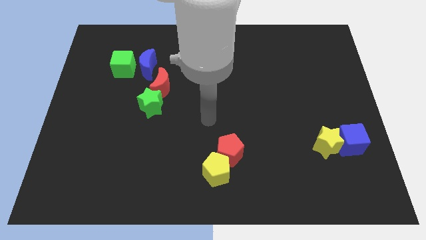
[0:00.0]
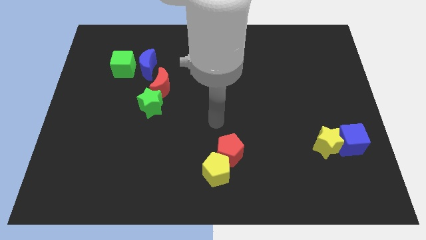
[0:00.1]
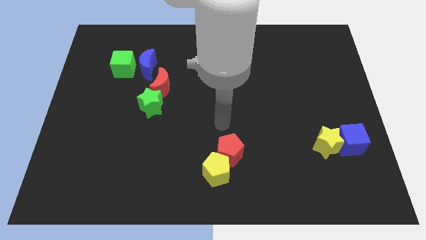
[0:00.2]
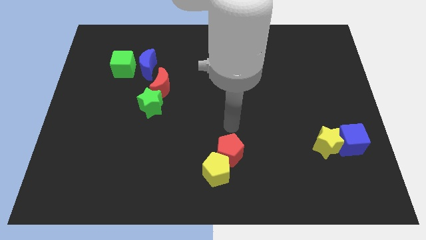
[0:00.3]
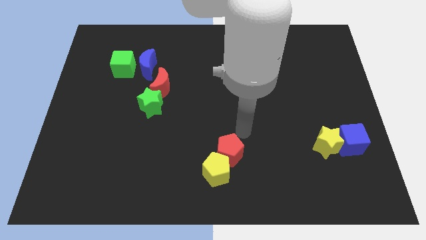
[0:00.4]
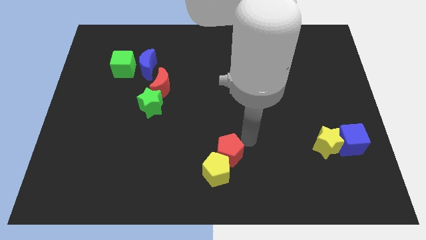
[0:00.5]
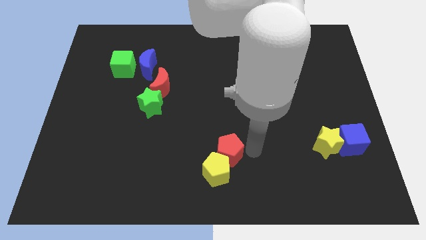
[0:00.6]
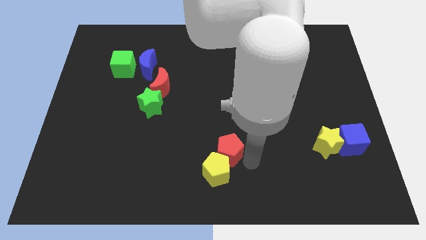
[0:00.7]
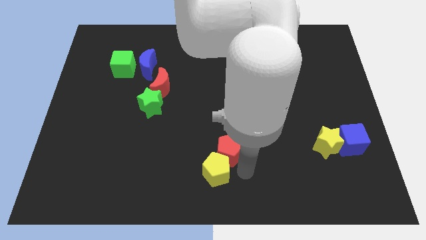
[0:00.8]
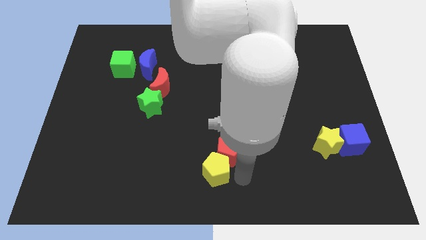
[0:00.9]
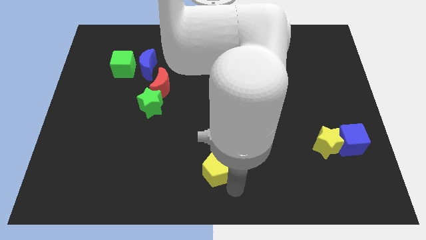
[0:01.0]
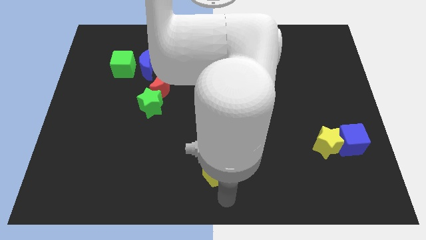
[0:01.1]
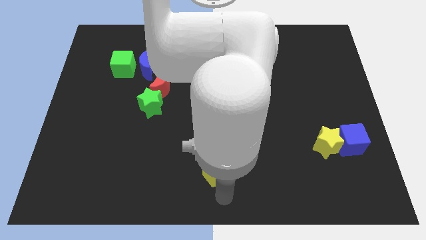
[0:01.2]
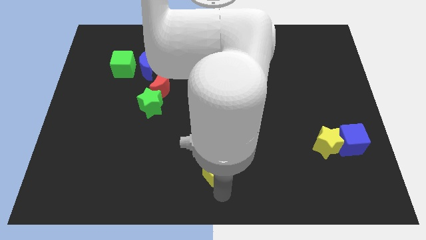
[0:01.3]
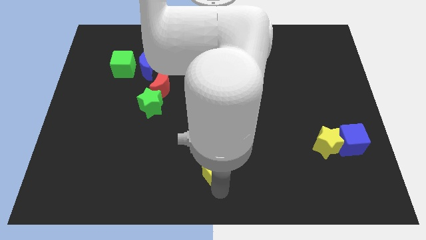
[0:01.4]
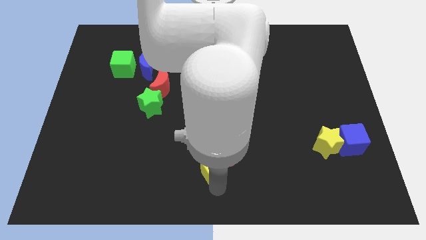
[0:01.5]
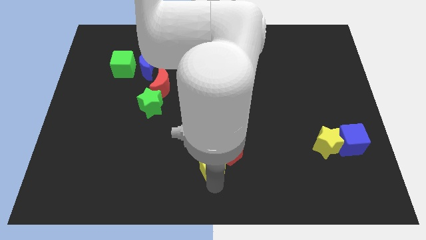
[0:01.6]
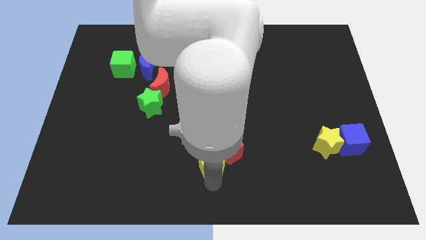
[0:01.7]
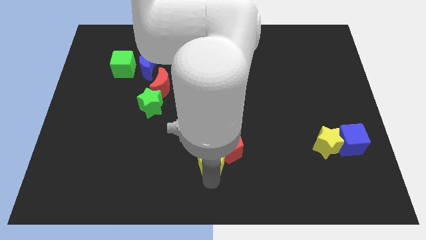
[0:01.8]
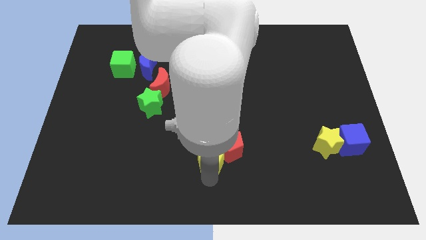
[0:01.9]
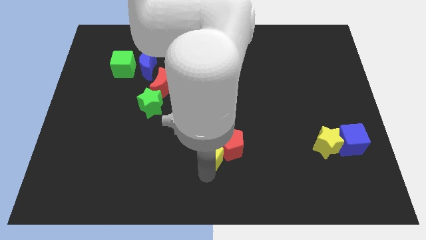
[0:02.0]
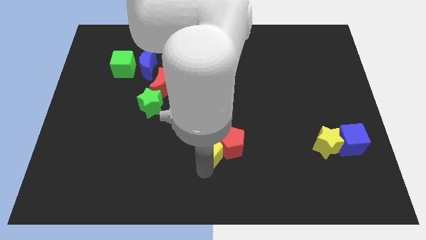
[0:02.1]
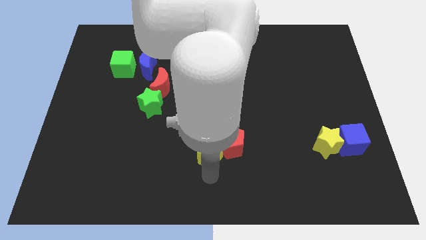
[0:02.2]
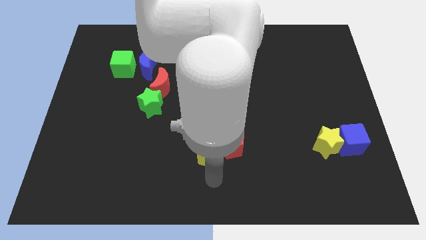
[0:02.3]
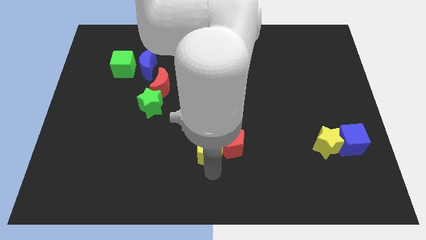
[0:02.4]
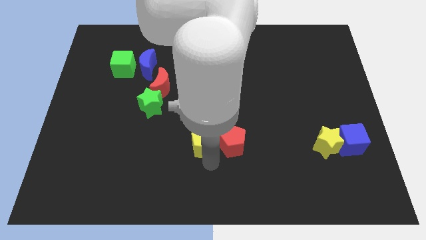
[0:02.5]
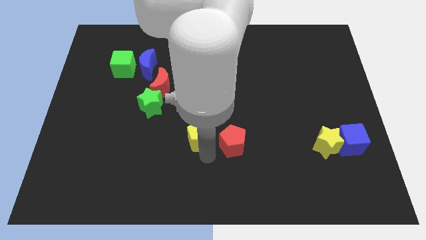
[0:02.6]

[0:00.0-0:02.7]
slide the yellow pentagon up somewhat

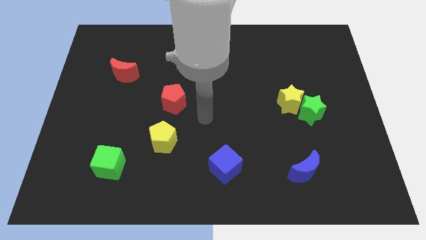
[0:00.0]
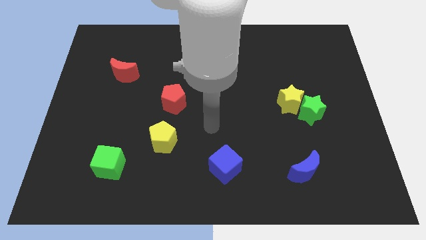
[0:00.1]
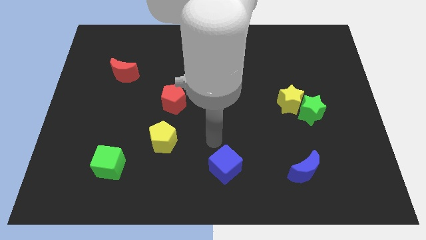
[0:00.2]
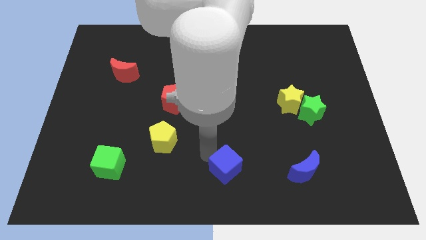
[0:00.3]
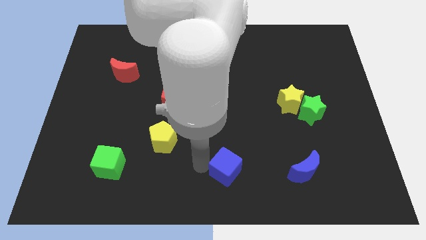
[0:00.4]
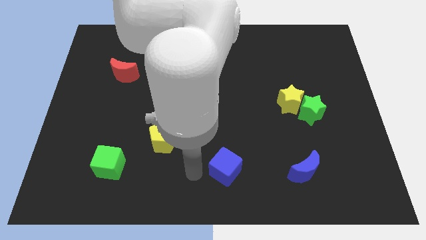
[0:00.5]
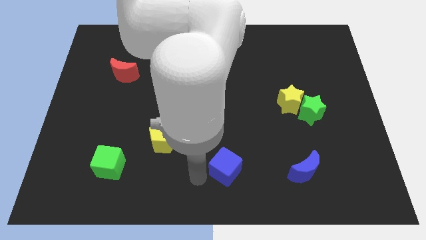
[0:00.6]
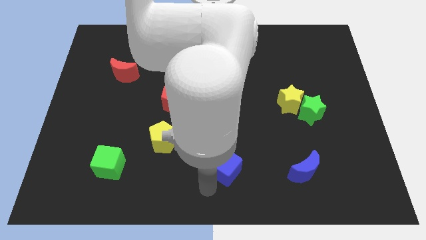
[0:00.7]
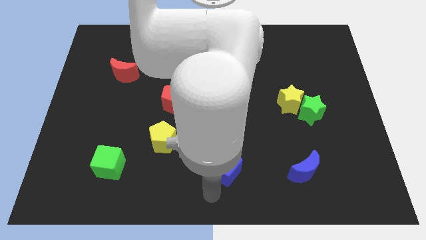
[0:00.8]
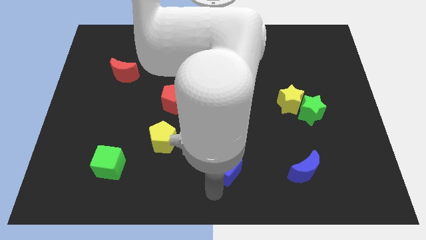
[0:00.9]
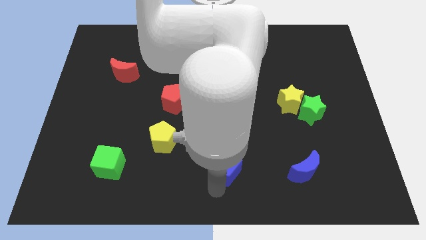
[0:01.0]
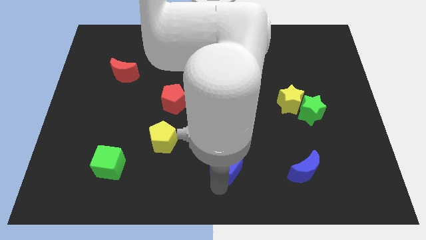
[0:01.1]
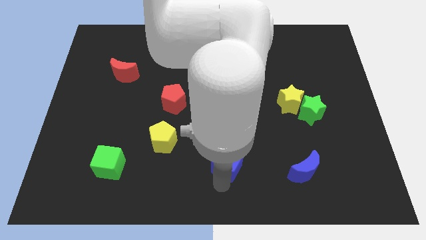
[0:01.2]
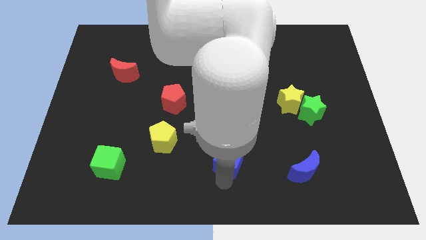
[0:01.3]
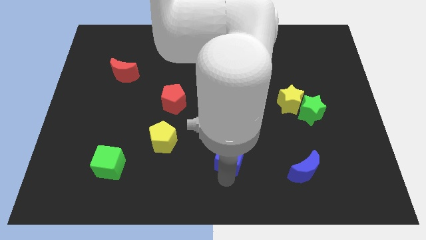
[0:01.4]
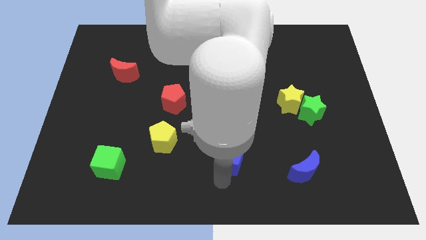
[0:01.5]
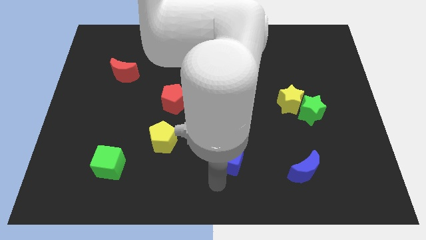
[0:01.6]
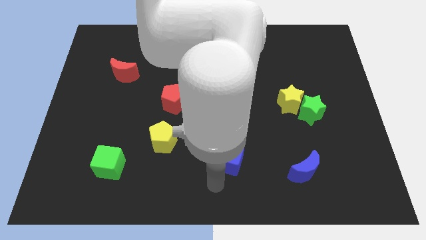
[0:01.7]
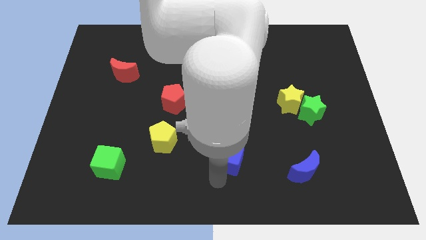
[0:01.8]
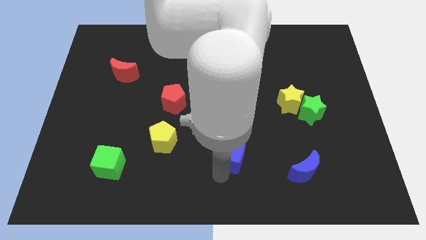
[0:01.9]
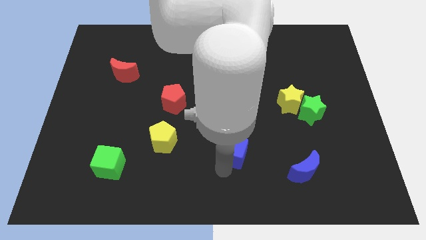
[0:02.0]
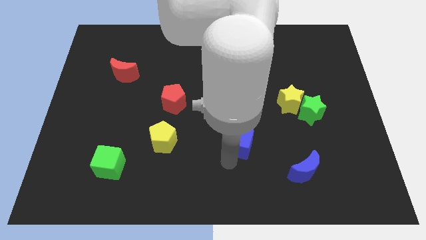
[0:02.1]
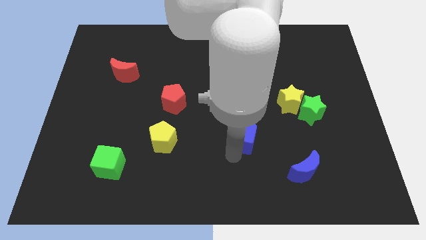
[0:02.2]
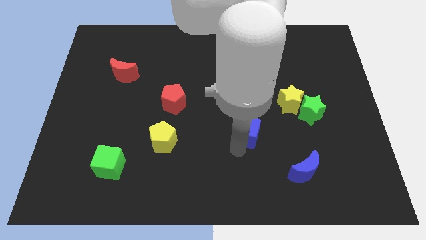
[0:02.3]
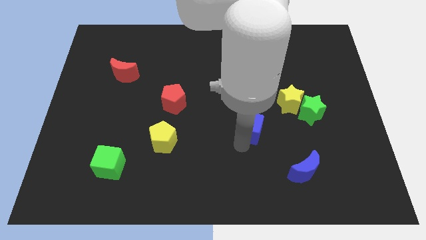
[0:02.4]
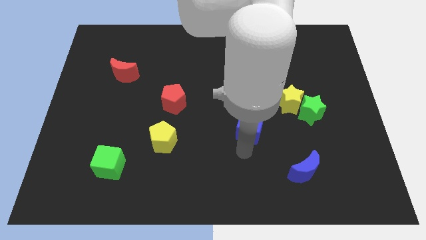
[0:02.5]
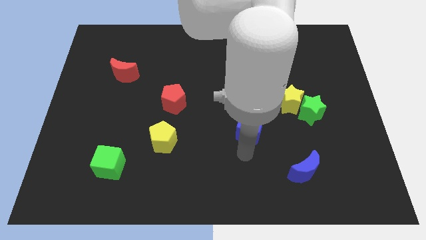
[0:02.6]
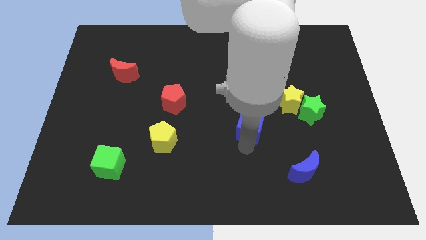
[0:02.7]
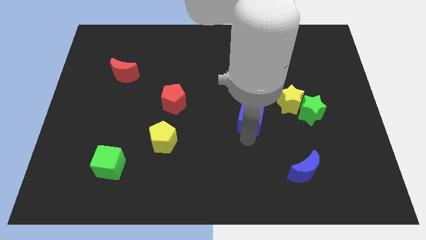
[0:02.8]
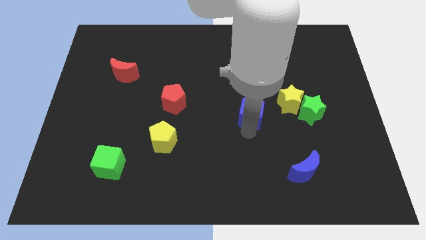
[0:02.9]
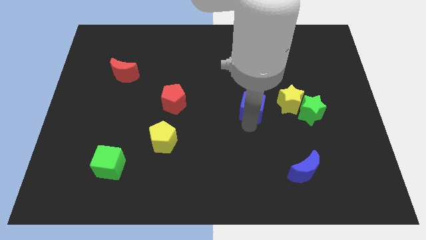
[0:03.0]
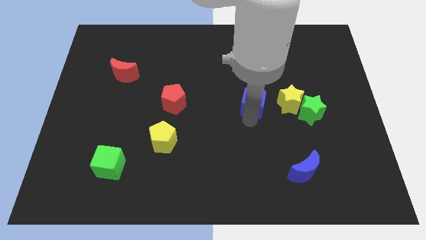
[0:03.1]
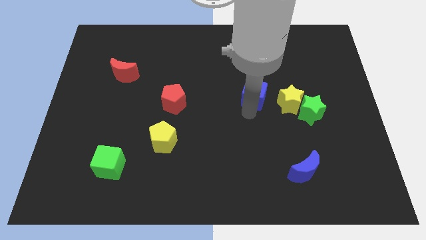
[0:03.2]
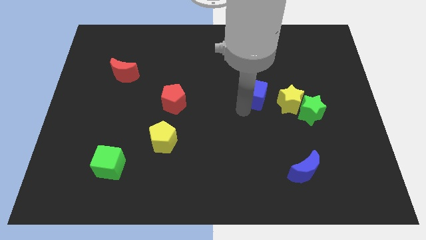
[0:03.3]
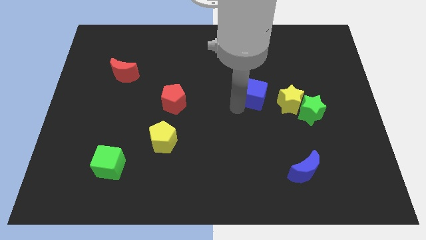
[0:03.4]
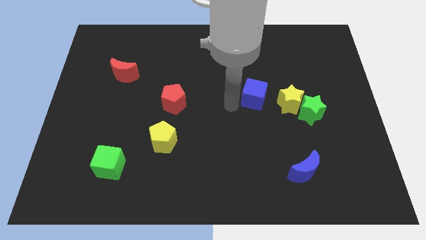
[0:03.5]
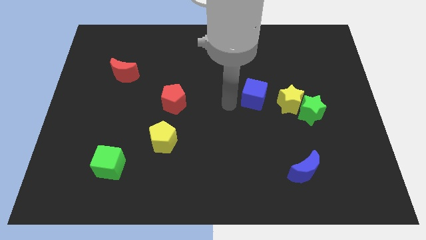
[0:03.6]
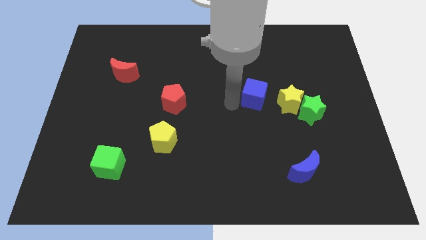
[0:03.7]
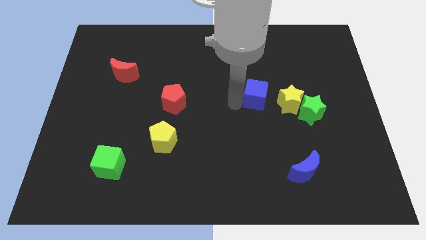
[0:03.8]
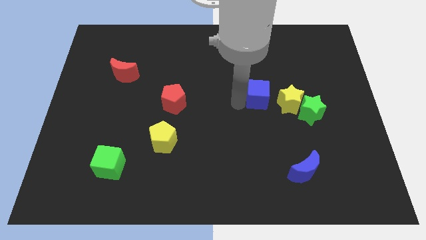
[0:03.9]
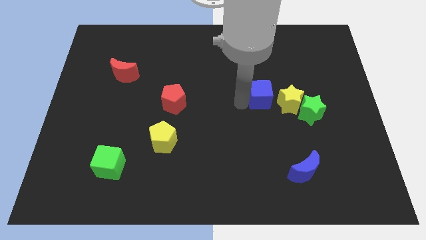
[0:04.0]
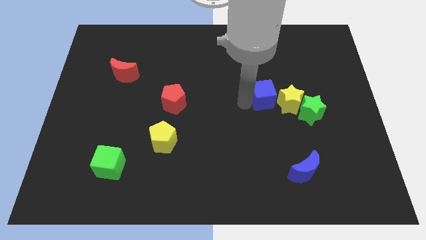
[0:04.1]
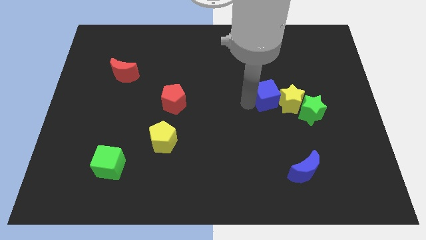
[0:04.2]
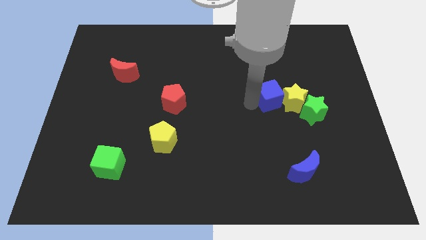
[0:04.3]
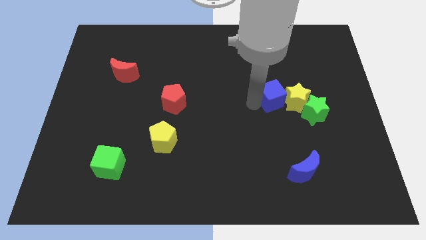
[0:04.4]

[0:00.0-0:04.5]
slide the blue cube diagonally upwards and right

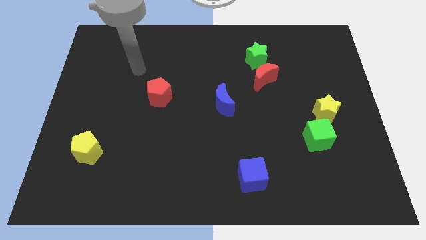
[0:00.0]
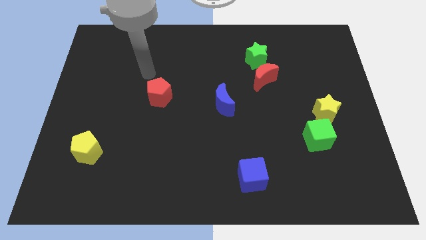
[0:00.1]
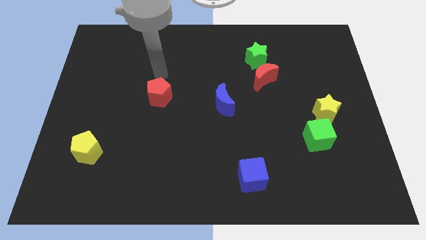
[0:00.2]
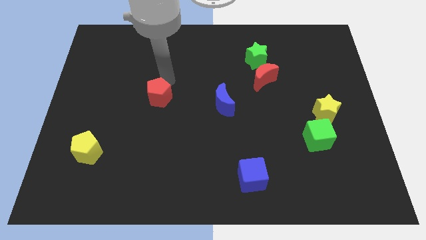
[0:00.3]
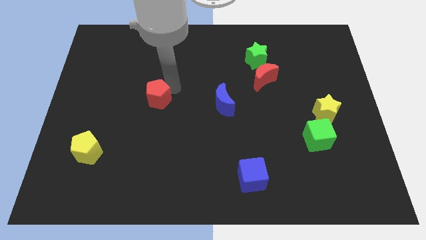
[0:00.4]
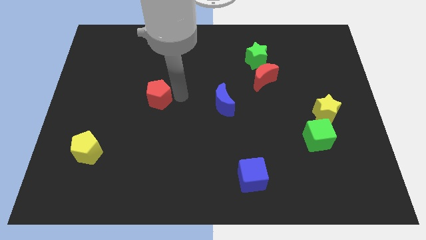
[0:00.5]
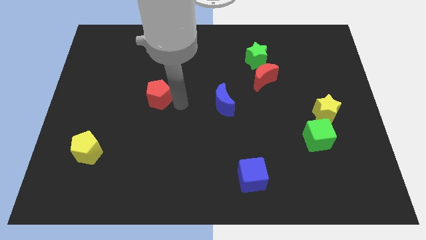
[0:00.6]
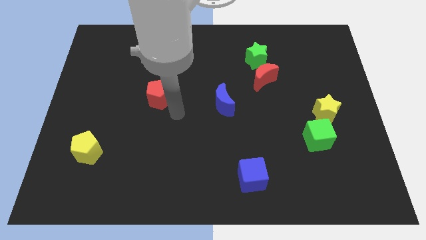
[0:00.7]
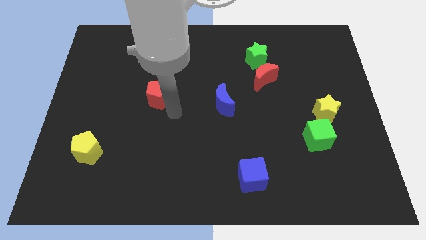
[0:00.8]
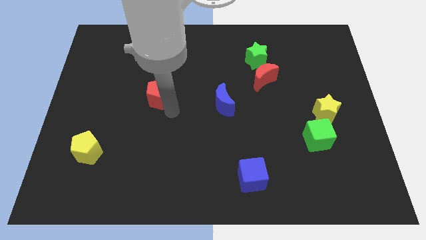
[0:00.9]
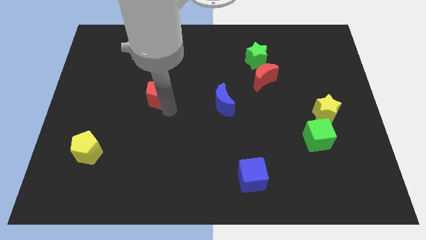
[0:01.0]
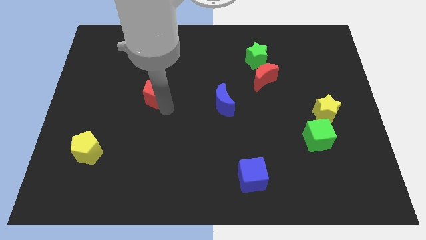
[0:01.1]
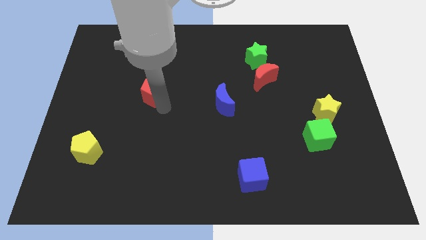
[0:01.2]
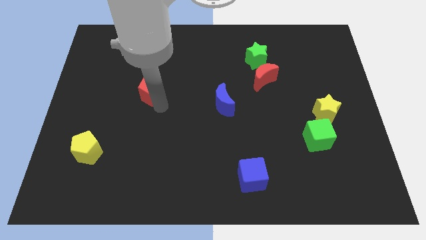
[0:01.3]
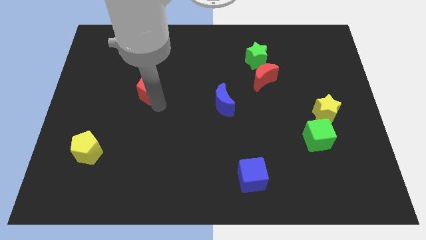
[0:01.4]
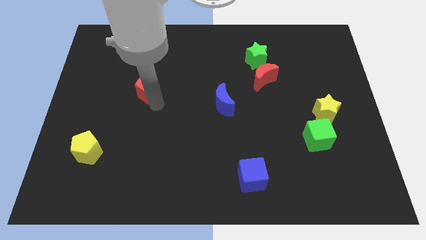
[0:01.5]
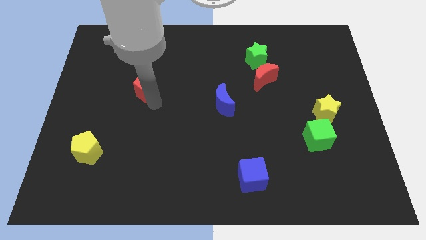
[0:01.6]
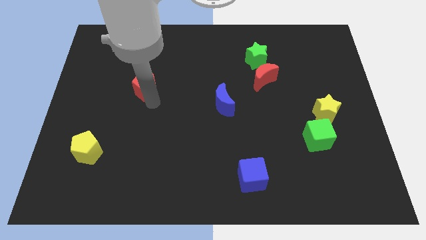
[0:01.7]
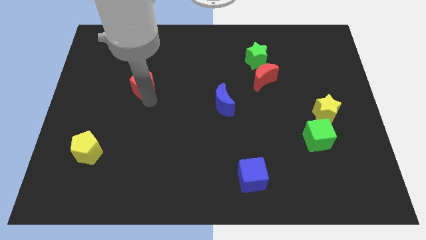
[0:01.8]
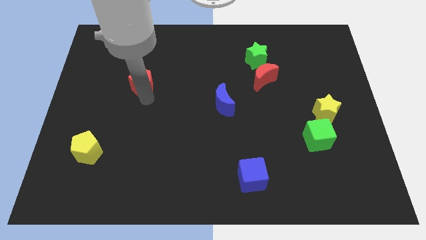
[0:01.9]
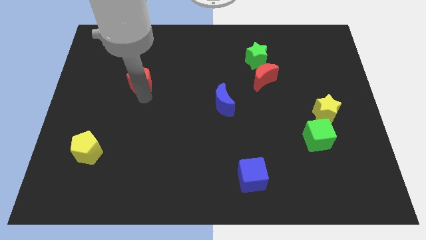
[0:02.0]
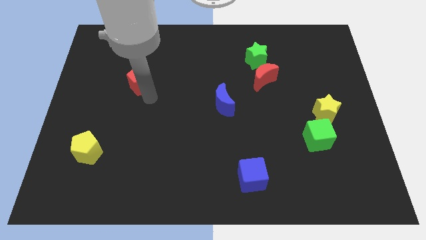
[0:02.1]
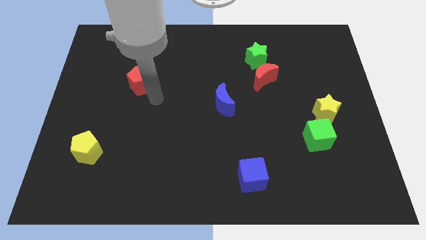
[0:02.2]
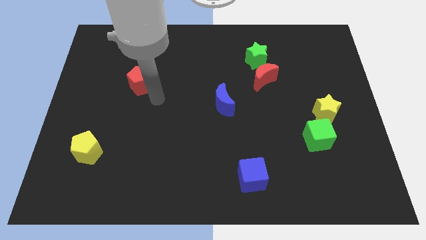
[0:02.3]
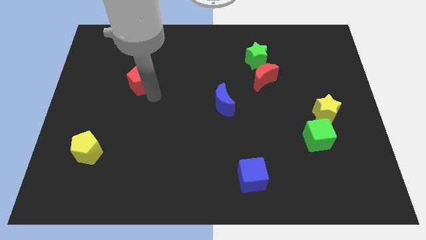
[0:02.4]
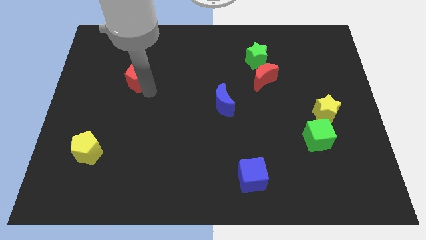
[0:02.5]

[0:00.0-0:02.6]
slide the red pentagon upwards and to the left diagonally a bit
